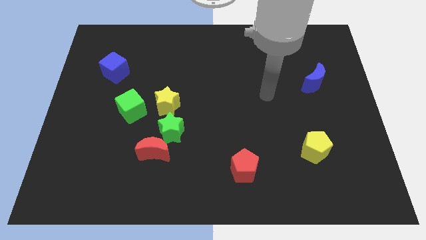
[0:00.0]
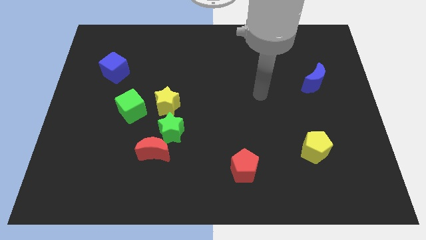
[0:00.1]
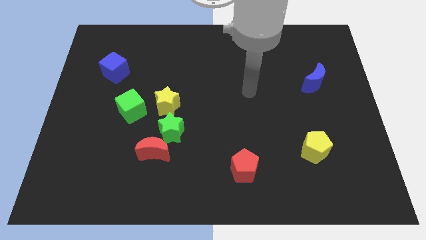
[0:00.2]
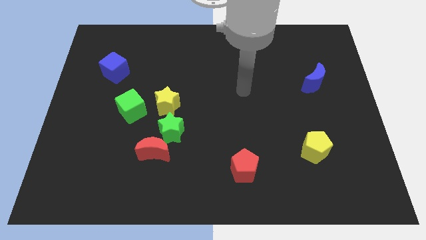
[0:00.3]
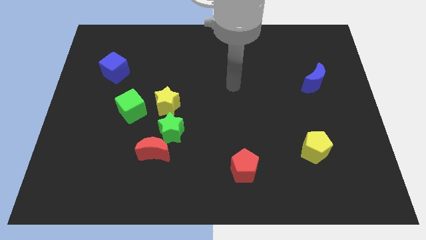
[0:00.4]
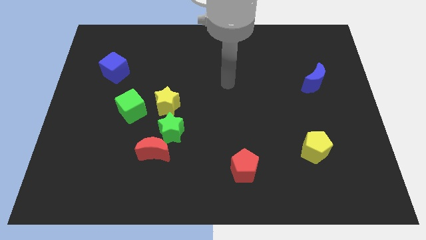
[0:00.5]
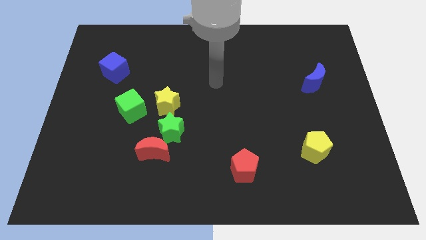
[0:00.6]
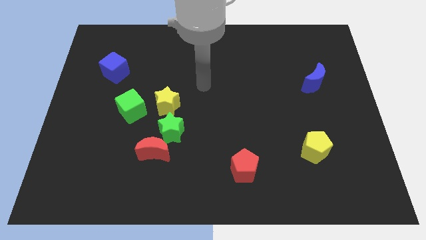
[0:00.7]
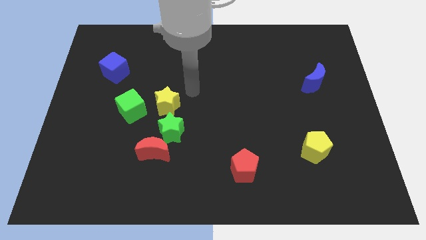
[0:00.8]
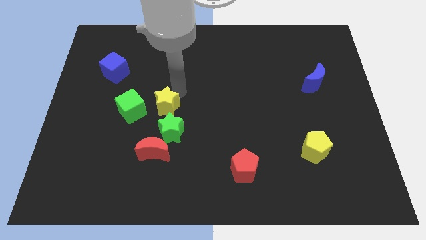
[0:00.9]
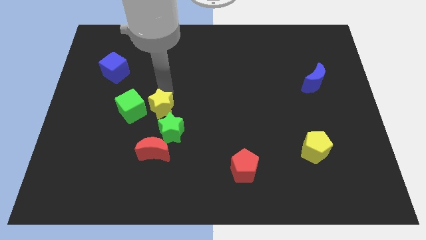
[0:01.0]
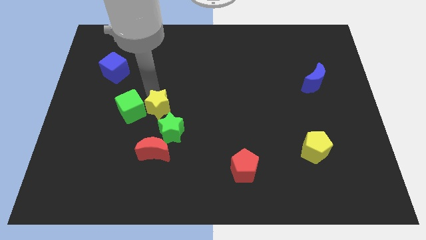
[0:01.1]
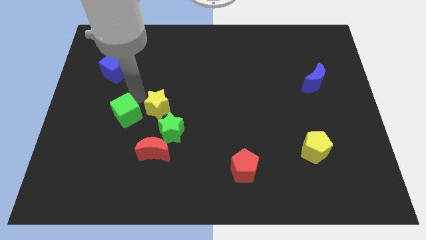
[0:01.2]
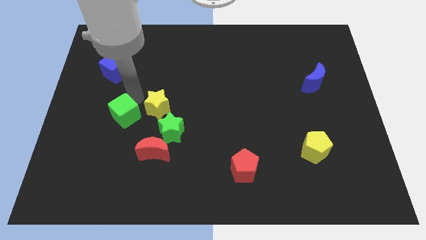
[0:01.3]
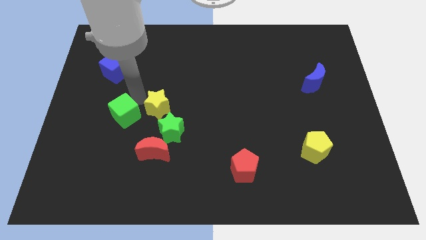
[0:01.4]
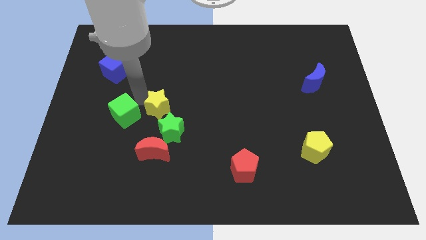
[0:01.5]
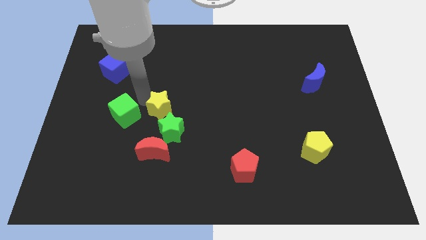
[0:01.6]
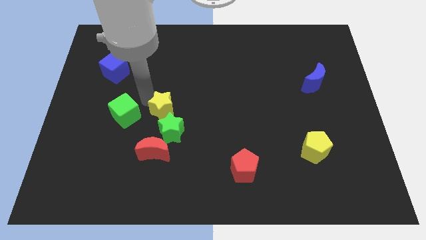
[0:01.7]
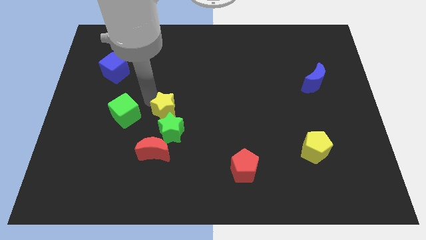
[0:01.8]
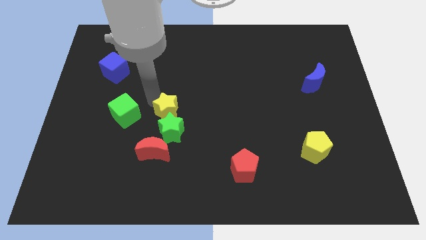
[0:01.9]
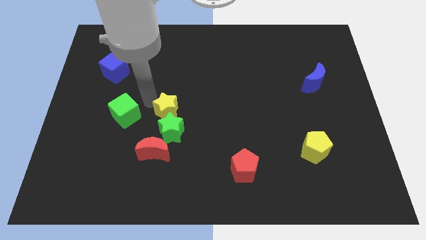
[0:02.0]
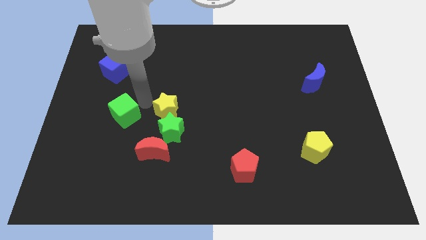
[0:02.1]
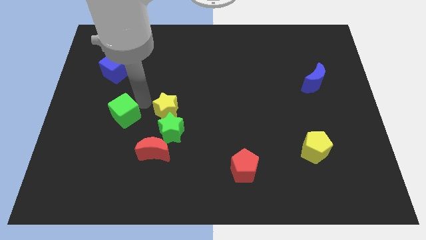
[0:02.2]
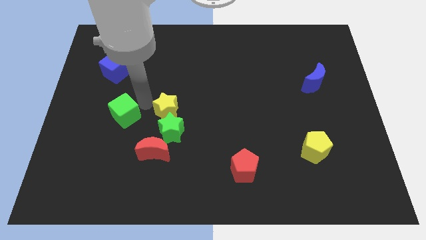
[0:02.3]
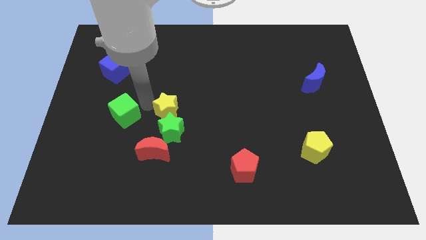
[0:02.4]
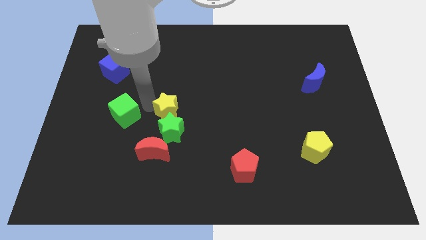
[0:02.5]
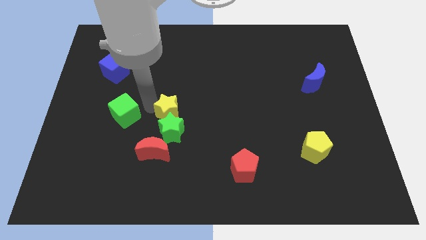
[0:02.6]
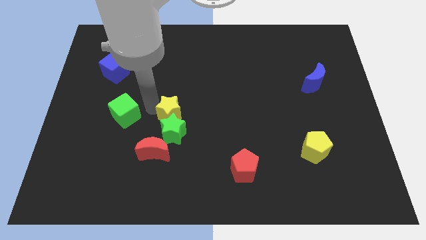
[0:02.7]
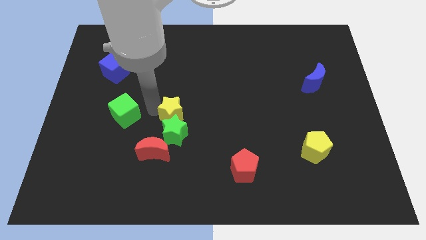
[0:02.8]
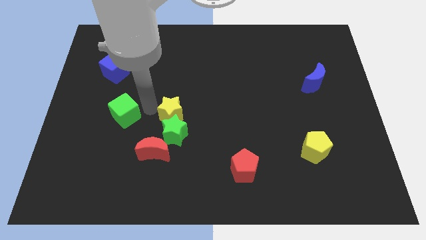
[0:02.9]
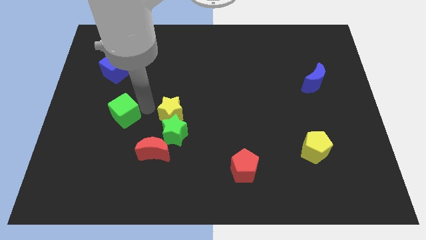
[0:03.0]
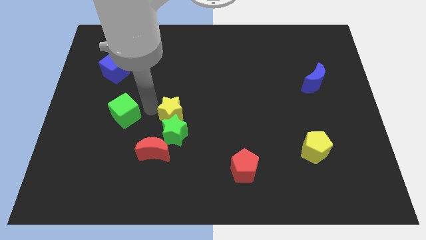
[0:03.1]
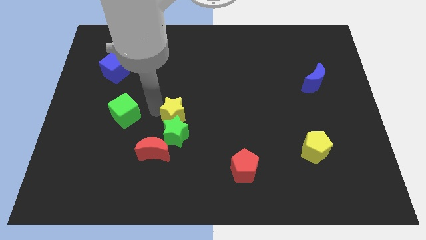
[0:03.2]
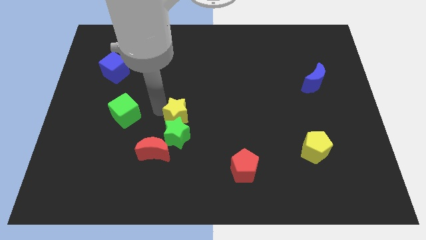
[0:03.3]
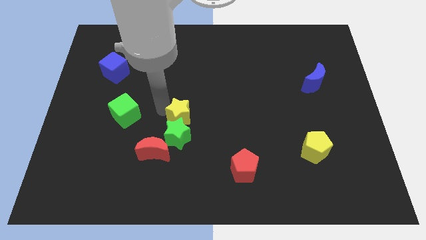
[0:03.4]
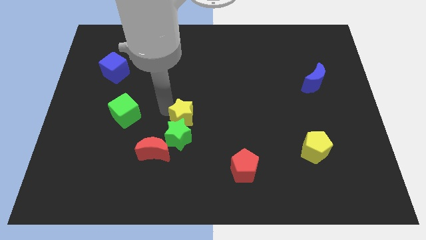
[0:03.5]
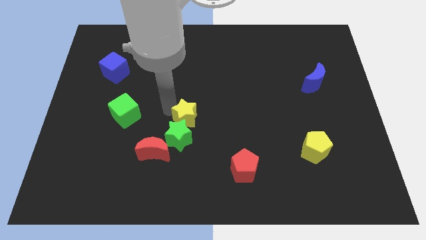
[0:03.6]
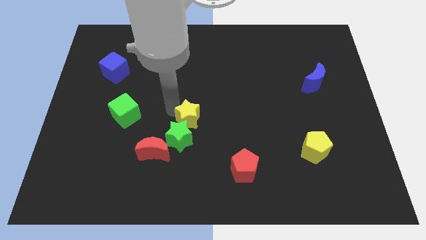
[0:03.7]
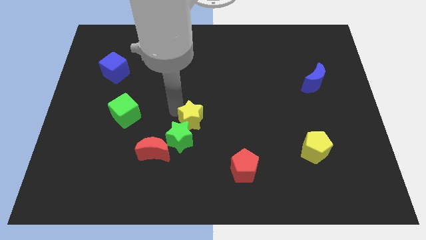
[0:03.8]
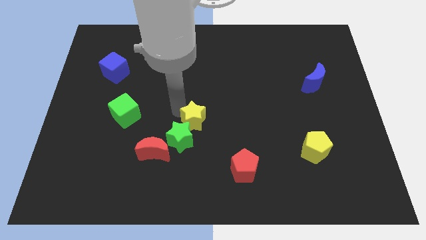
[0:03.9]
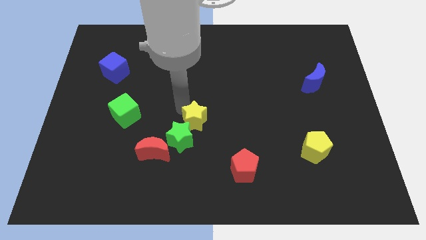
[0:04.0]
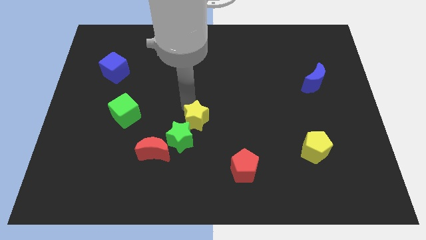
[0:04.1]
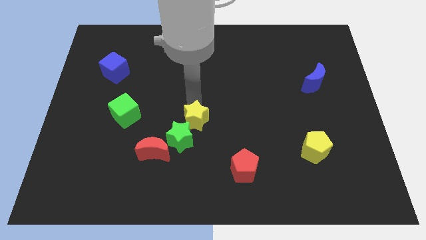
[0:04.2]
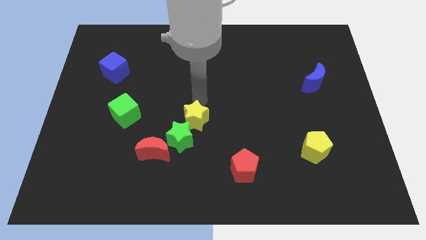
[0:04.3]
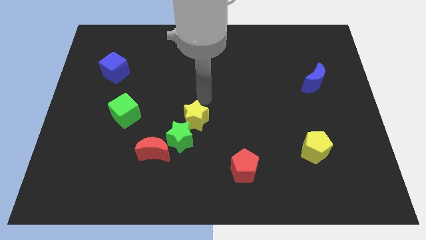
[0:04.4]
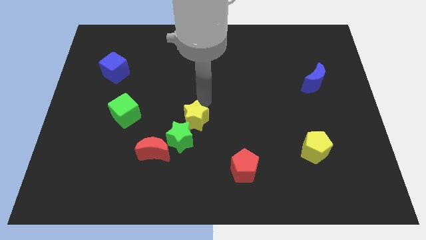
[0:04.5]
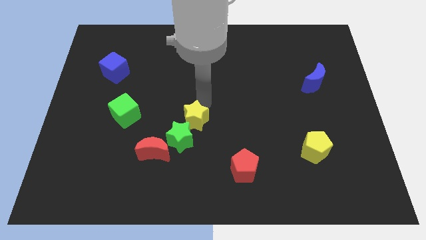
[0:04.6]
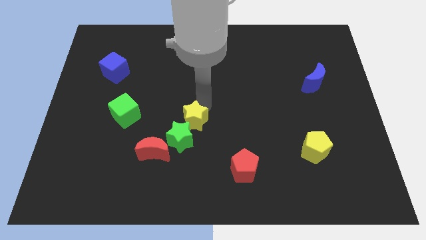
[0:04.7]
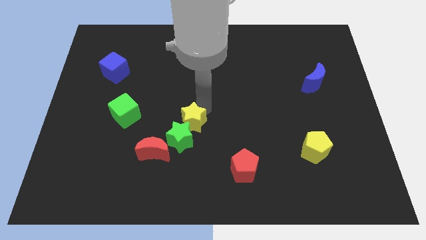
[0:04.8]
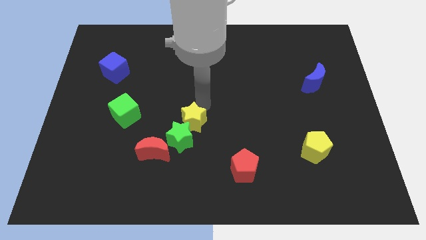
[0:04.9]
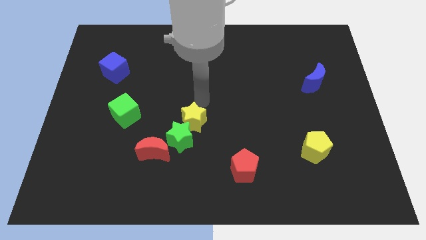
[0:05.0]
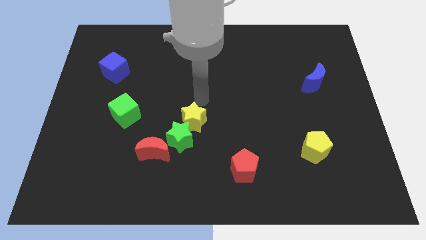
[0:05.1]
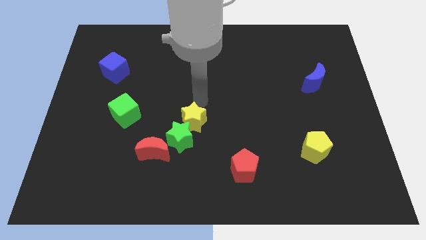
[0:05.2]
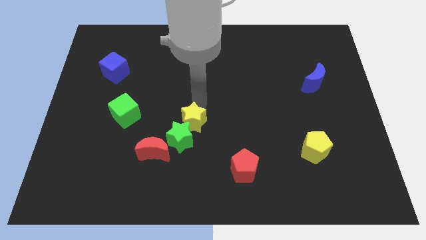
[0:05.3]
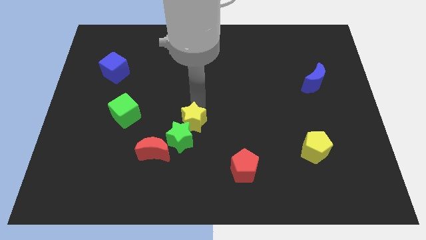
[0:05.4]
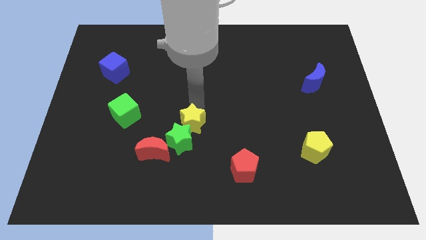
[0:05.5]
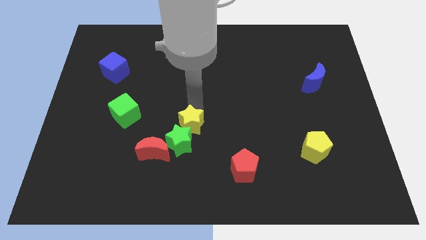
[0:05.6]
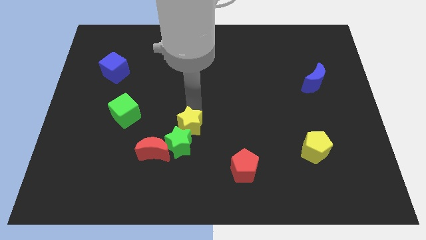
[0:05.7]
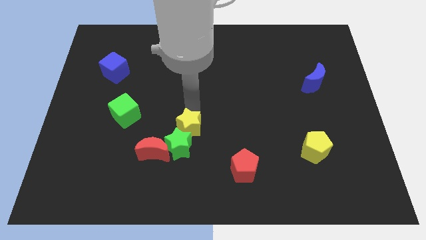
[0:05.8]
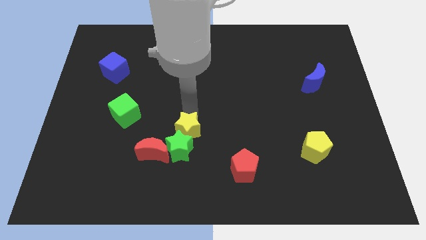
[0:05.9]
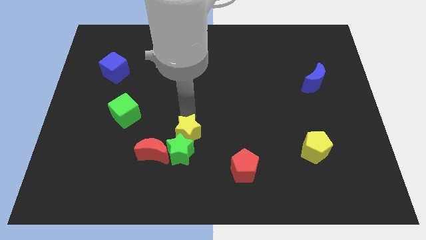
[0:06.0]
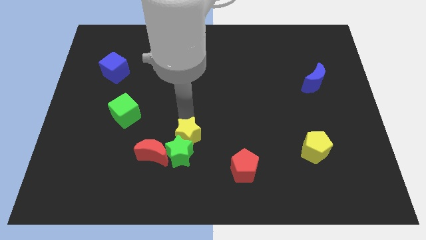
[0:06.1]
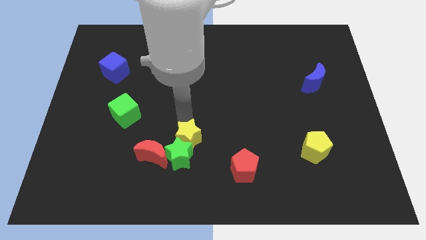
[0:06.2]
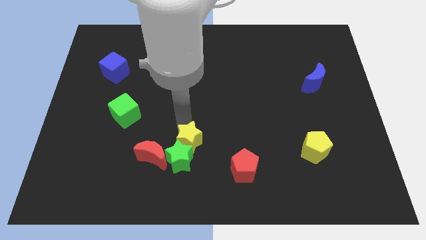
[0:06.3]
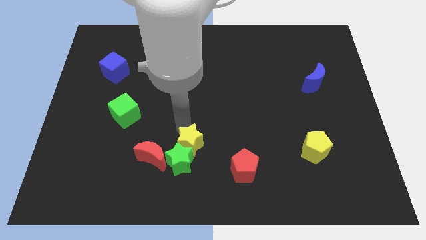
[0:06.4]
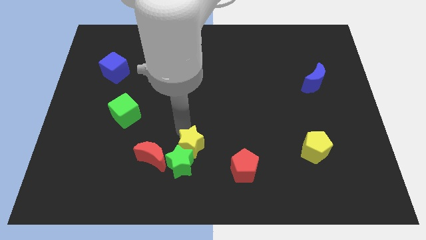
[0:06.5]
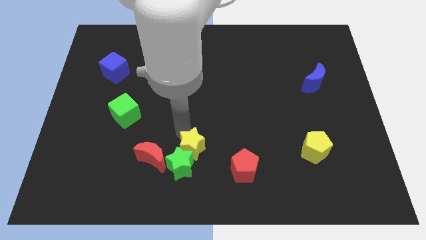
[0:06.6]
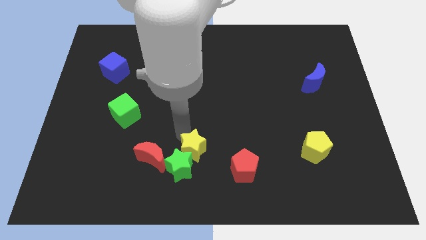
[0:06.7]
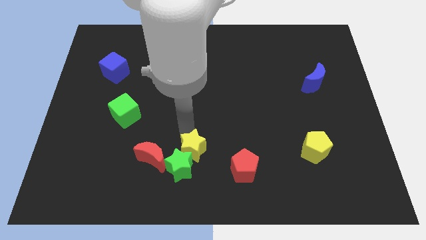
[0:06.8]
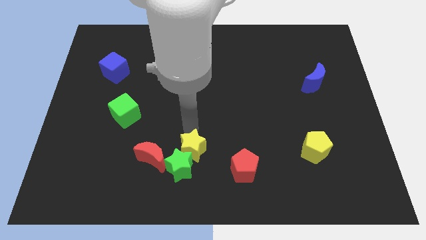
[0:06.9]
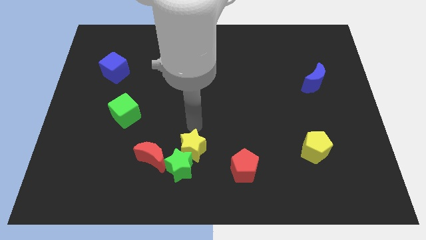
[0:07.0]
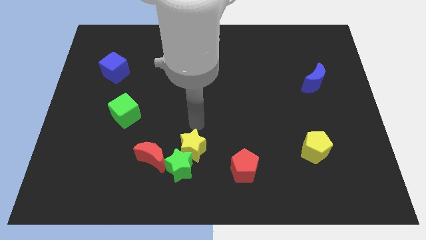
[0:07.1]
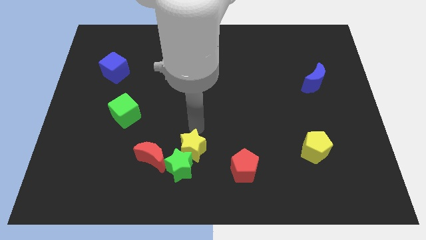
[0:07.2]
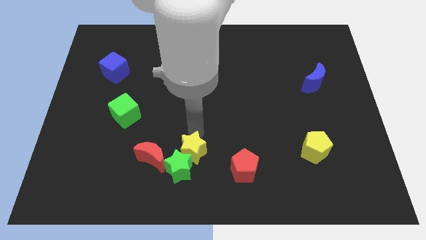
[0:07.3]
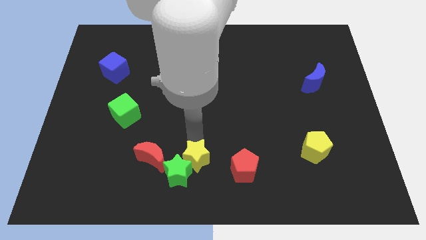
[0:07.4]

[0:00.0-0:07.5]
move the yellow star to the bottom side
